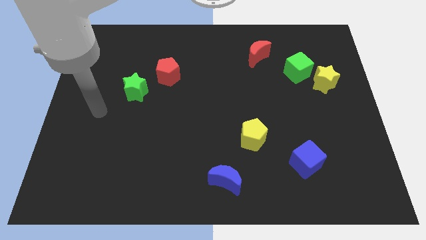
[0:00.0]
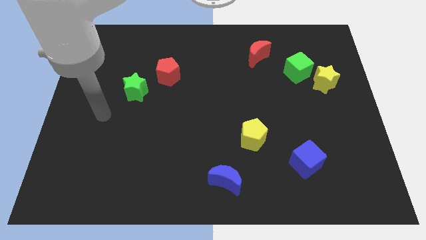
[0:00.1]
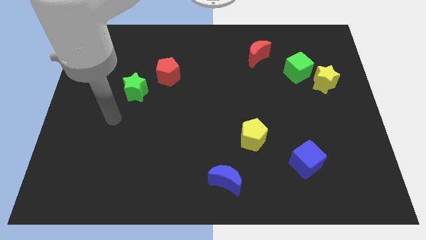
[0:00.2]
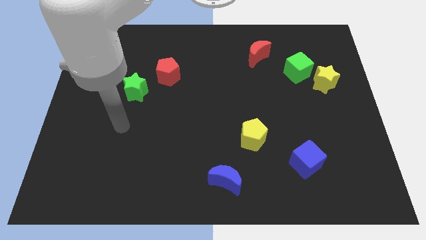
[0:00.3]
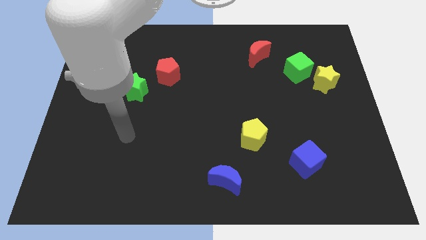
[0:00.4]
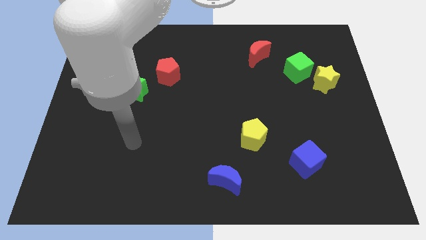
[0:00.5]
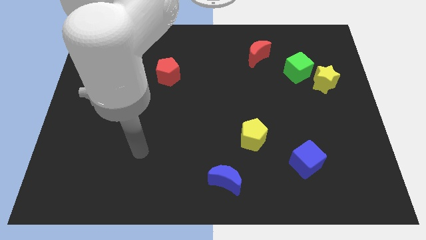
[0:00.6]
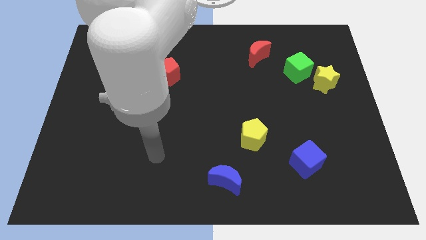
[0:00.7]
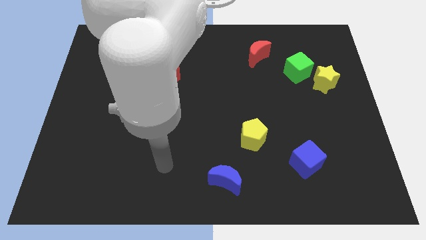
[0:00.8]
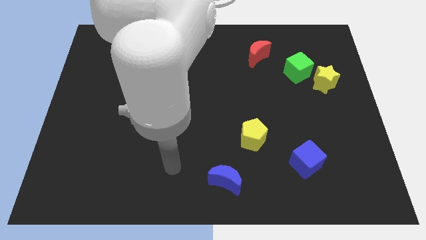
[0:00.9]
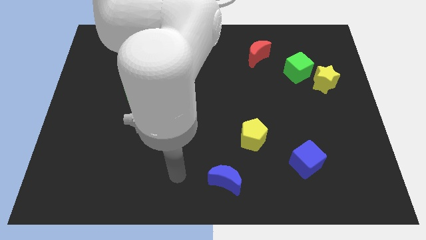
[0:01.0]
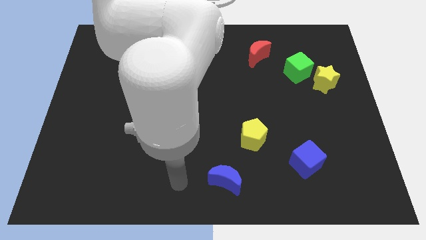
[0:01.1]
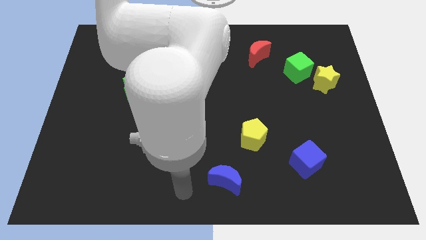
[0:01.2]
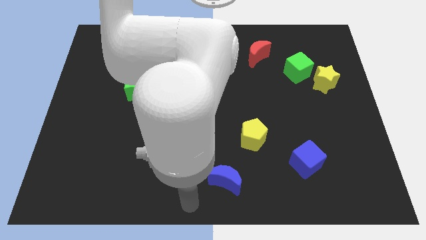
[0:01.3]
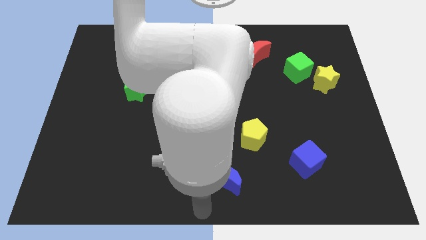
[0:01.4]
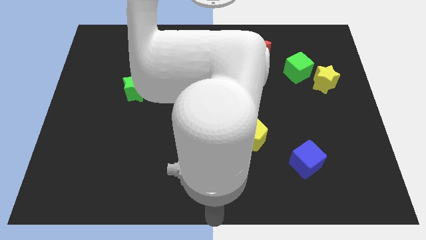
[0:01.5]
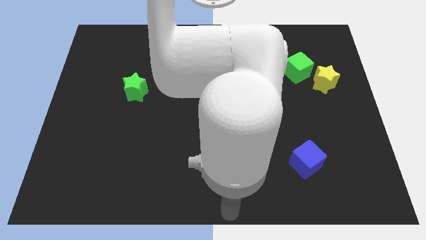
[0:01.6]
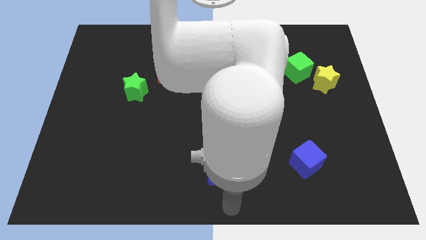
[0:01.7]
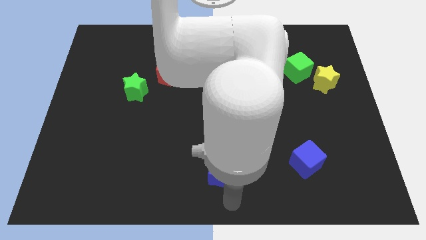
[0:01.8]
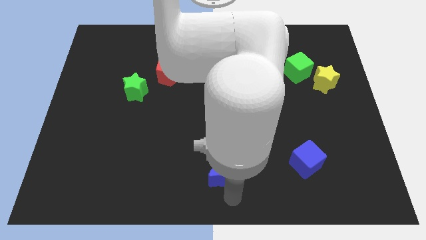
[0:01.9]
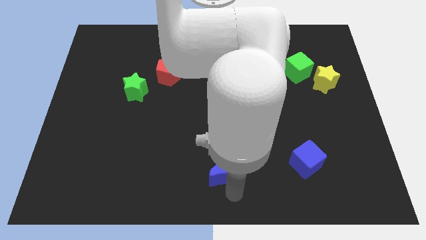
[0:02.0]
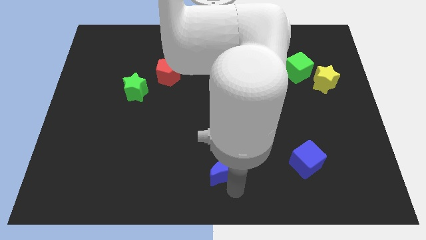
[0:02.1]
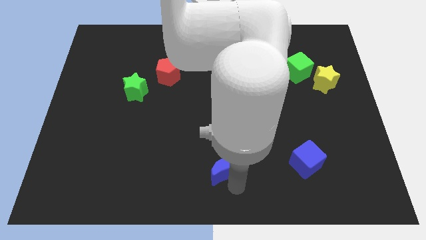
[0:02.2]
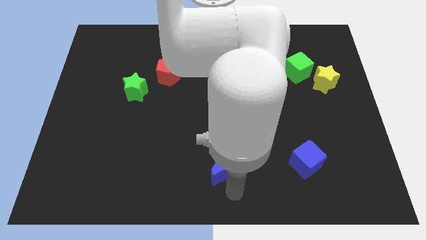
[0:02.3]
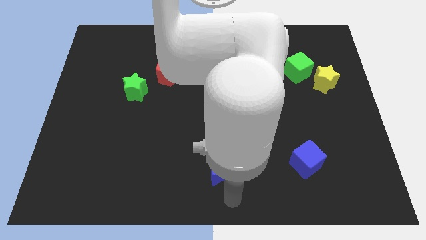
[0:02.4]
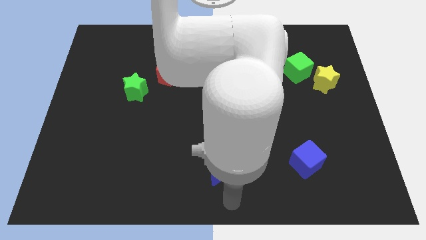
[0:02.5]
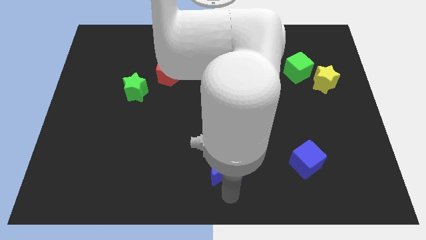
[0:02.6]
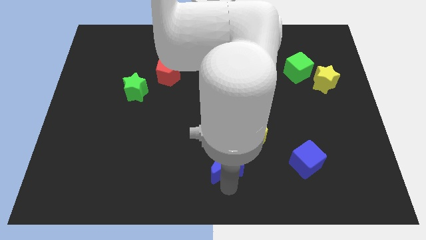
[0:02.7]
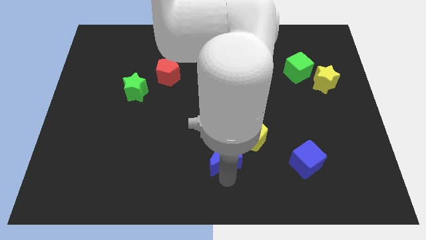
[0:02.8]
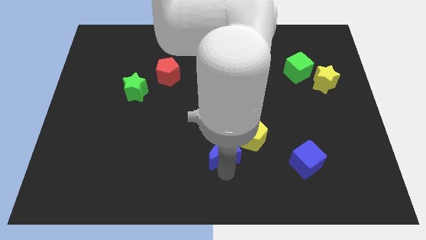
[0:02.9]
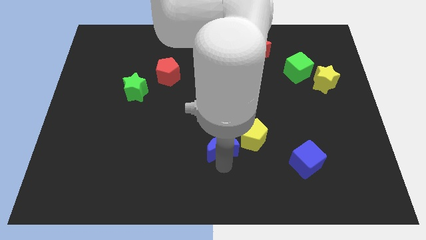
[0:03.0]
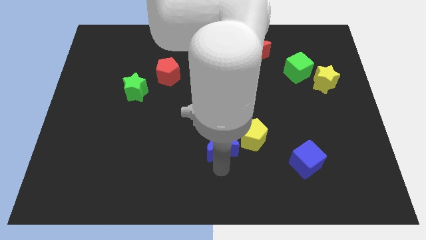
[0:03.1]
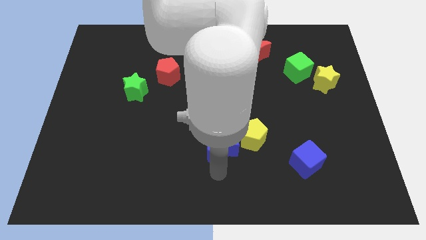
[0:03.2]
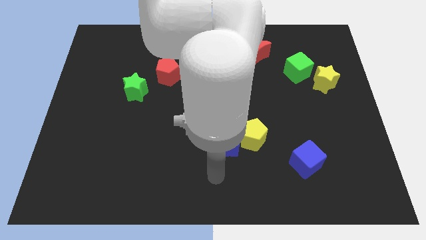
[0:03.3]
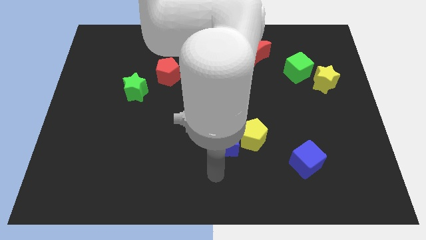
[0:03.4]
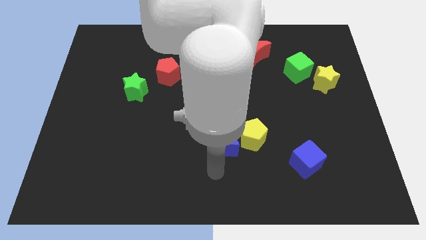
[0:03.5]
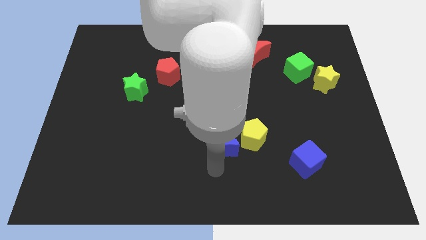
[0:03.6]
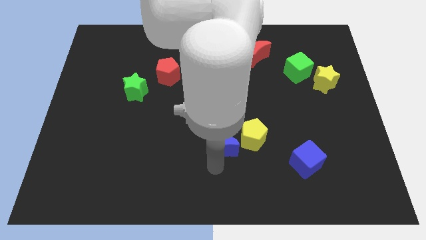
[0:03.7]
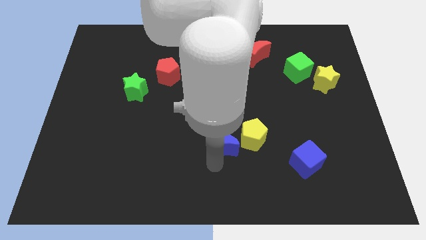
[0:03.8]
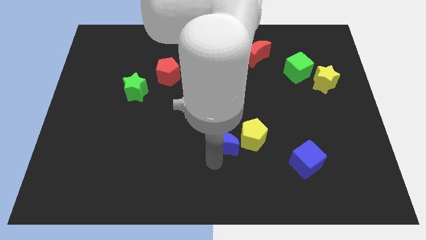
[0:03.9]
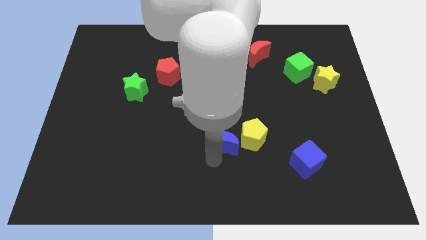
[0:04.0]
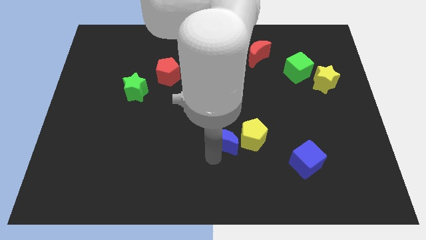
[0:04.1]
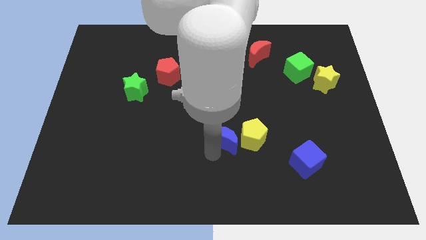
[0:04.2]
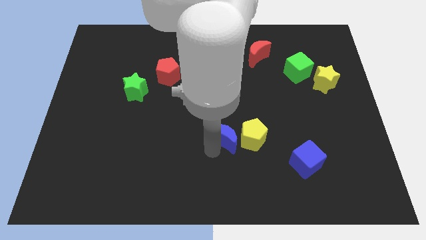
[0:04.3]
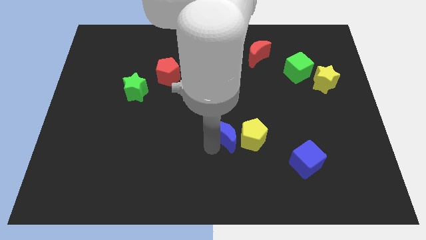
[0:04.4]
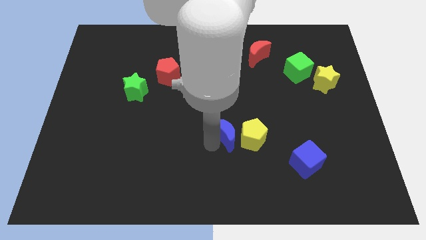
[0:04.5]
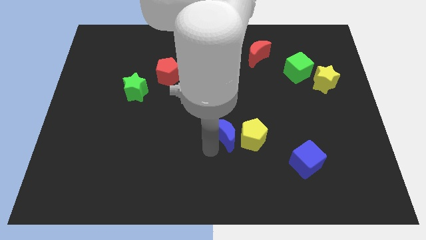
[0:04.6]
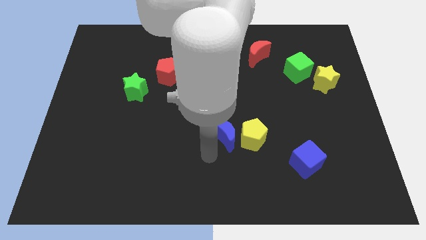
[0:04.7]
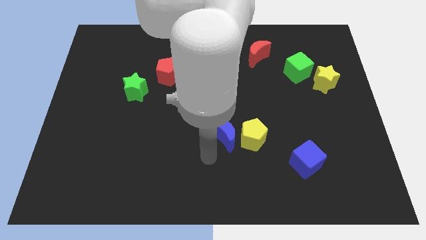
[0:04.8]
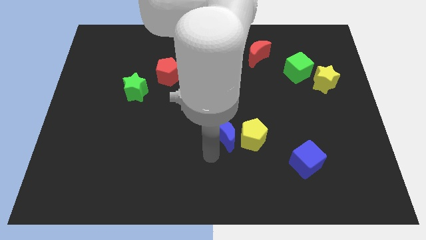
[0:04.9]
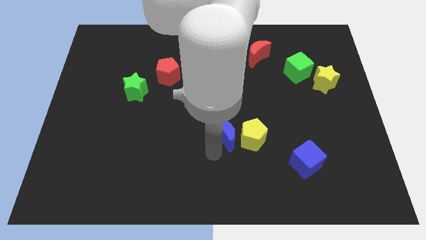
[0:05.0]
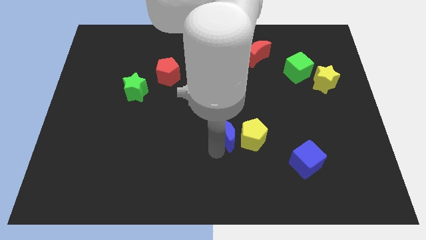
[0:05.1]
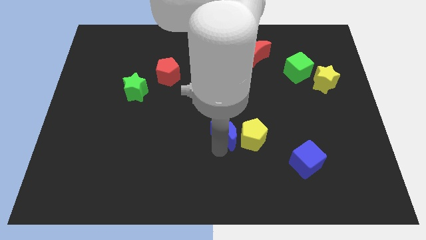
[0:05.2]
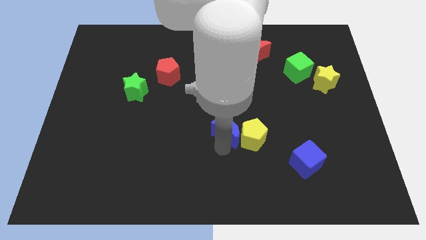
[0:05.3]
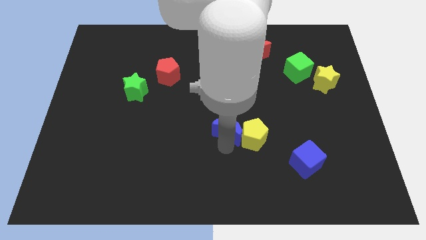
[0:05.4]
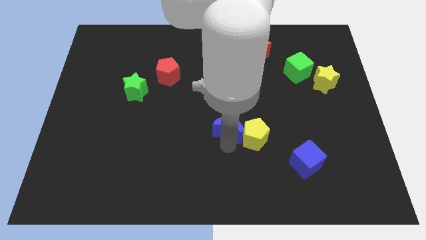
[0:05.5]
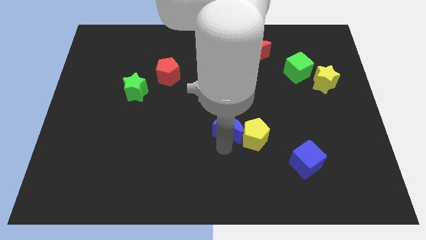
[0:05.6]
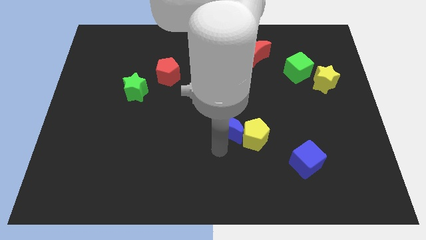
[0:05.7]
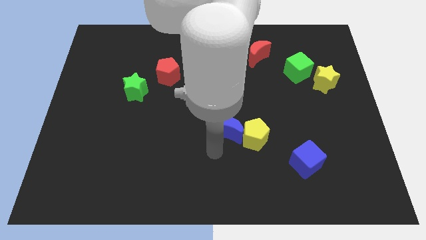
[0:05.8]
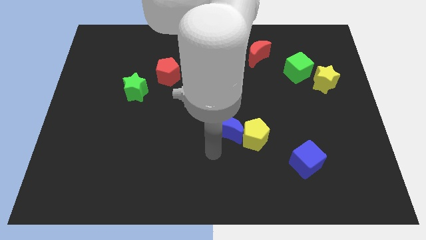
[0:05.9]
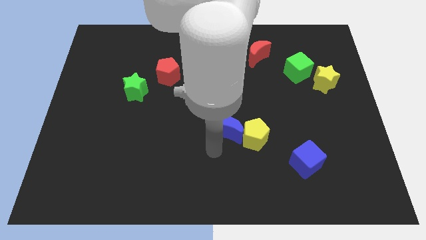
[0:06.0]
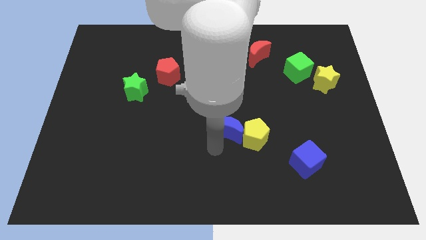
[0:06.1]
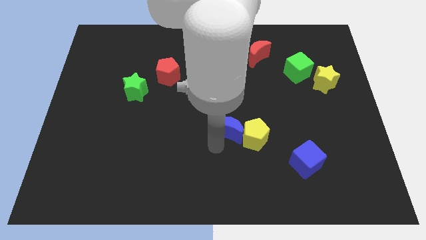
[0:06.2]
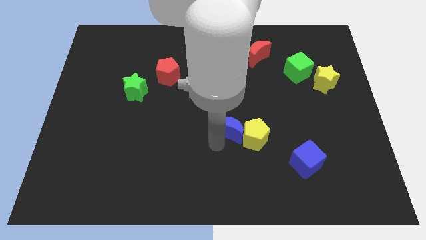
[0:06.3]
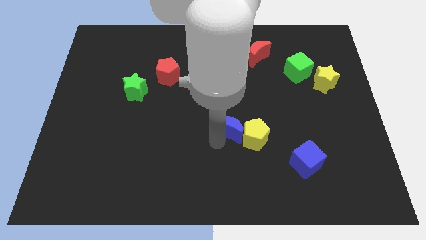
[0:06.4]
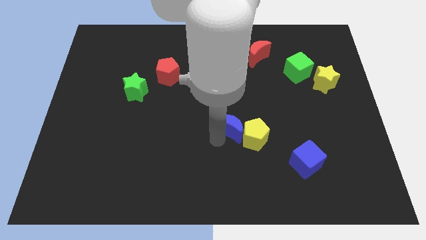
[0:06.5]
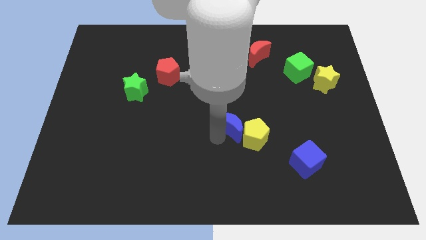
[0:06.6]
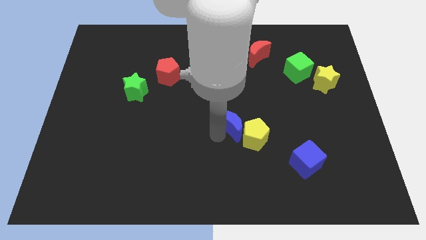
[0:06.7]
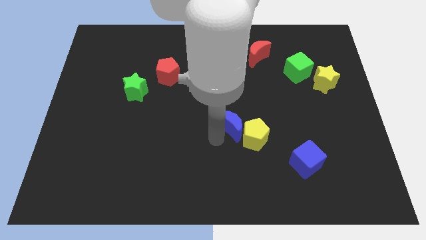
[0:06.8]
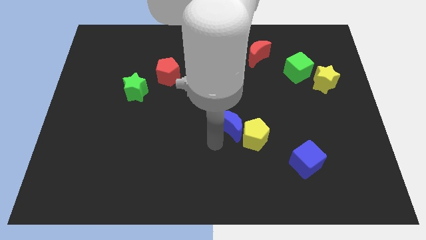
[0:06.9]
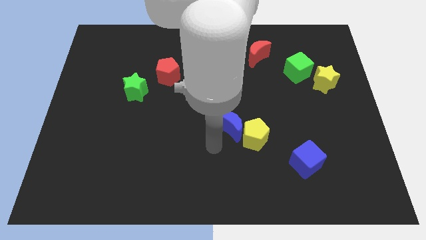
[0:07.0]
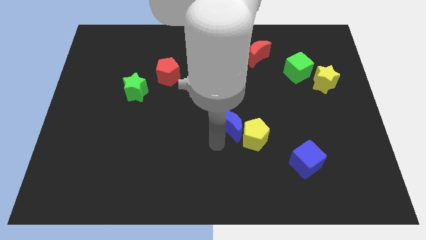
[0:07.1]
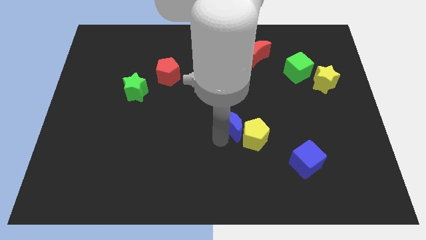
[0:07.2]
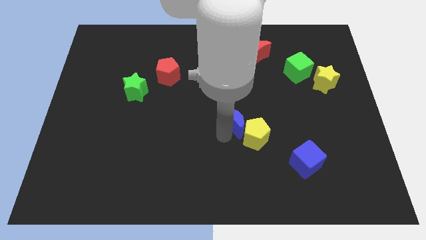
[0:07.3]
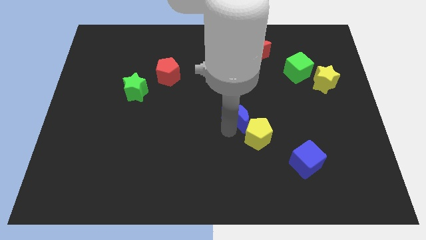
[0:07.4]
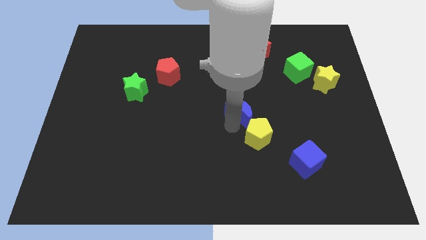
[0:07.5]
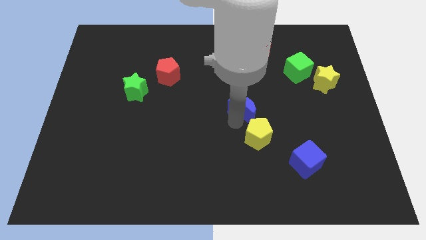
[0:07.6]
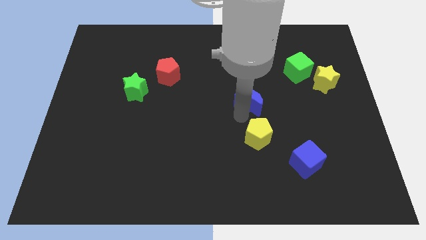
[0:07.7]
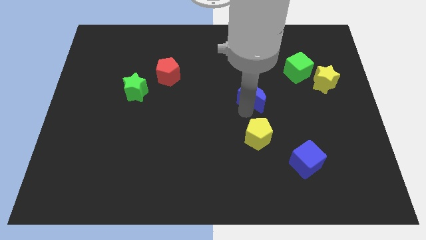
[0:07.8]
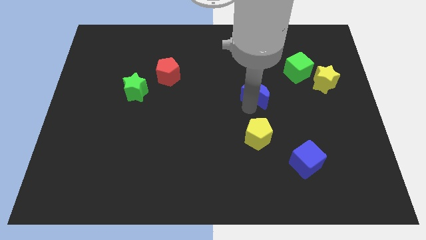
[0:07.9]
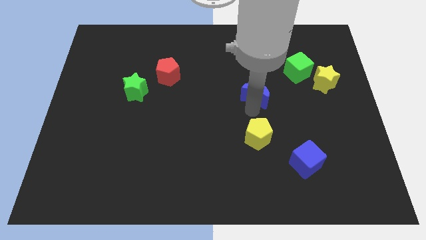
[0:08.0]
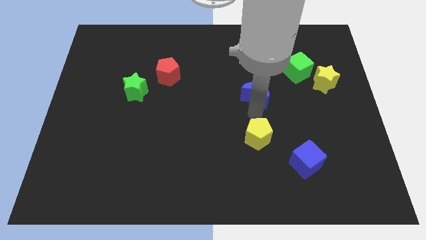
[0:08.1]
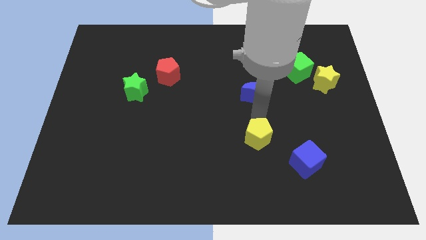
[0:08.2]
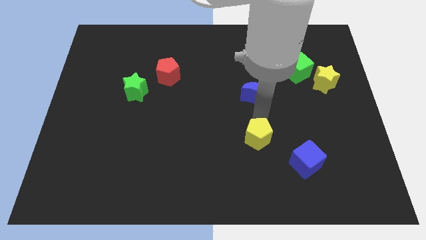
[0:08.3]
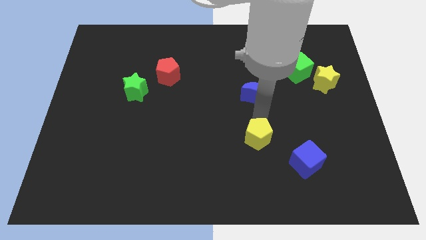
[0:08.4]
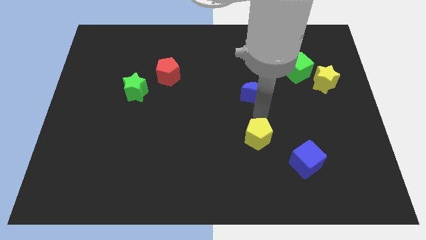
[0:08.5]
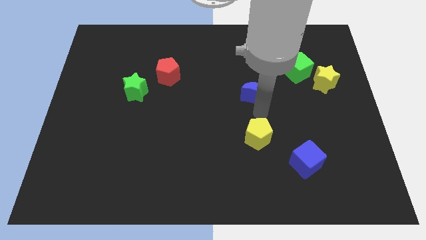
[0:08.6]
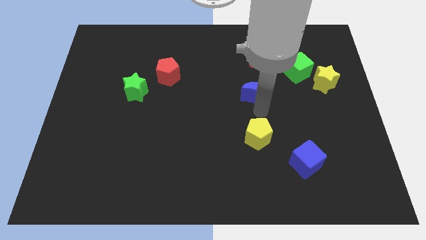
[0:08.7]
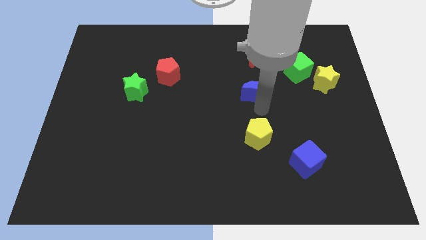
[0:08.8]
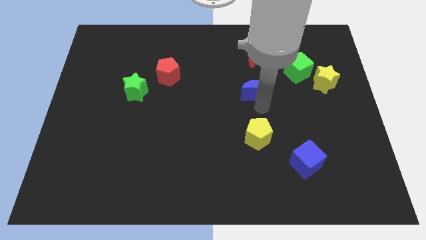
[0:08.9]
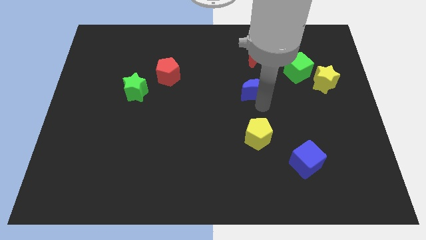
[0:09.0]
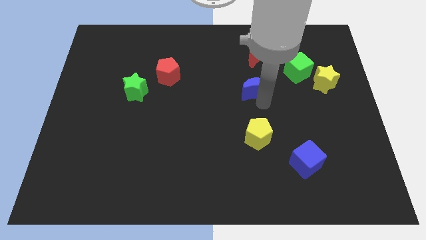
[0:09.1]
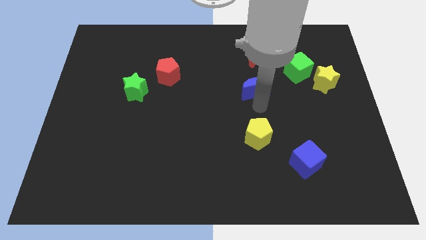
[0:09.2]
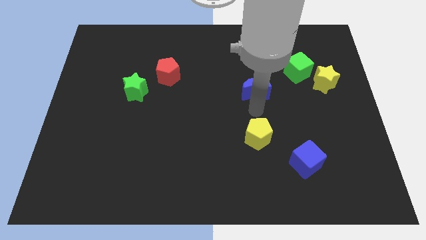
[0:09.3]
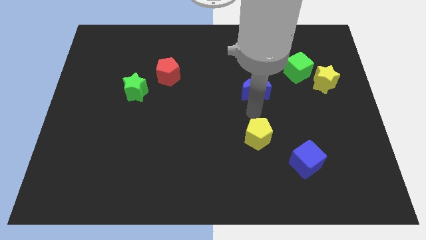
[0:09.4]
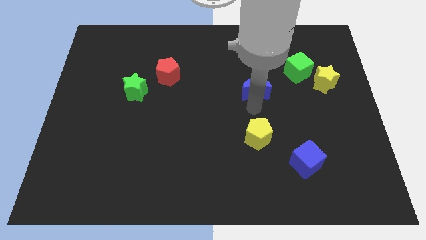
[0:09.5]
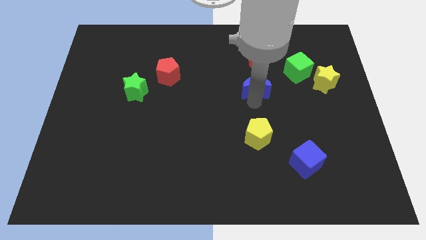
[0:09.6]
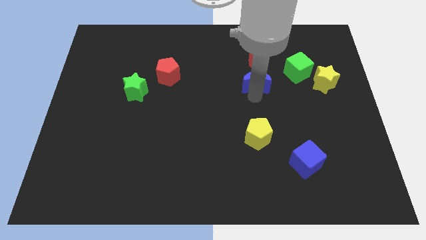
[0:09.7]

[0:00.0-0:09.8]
push the blue moon just left of the green cube
